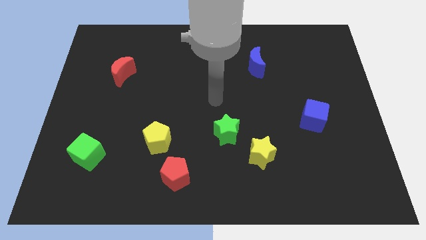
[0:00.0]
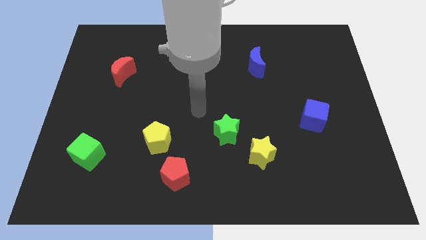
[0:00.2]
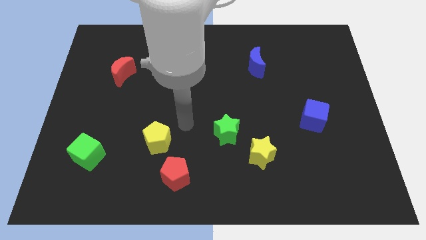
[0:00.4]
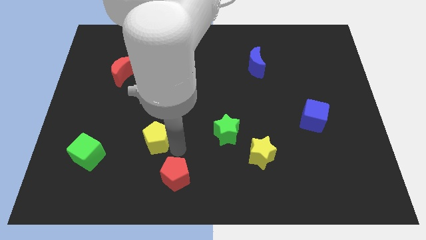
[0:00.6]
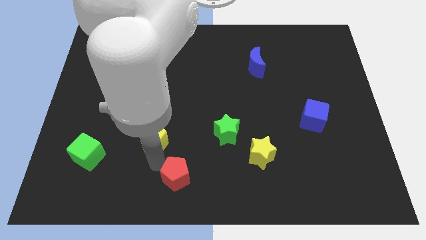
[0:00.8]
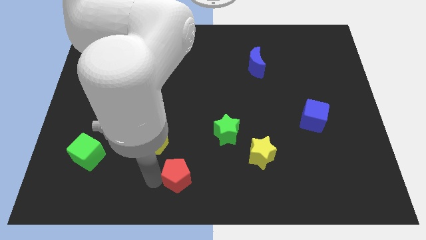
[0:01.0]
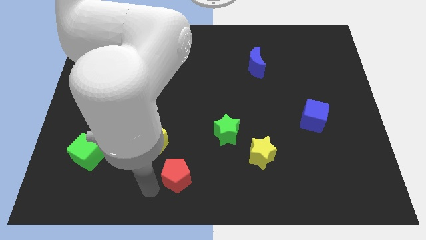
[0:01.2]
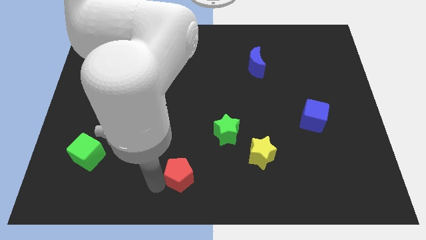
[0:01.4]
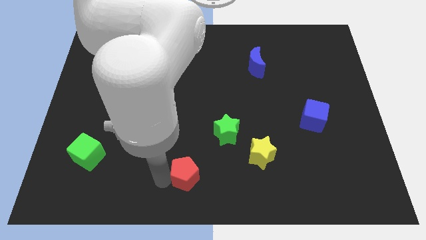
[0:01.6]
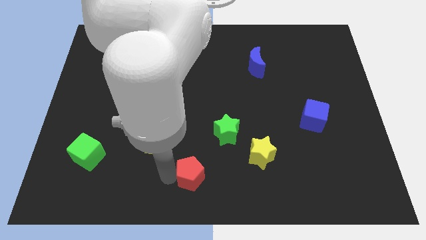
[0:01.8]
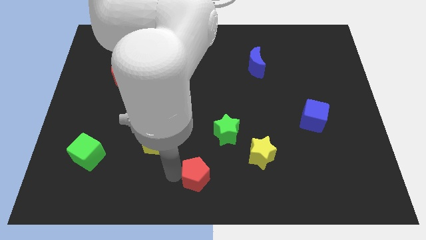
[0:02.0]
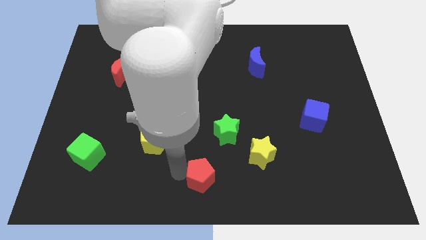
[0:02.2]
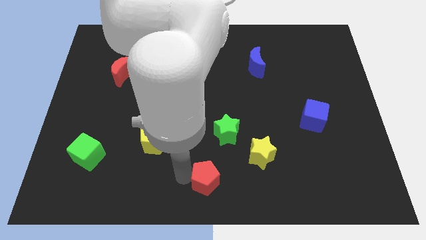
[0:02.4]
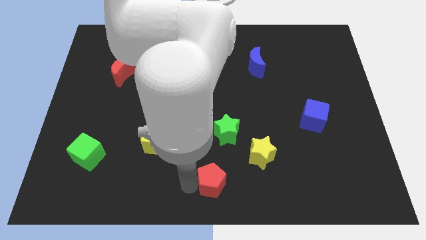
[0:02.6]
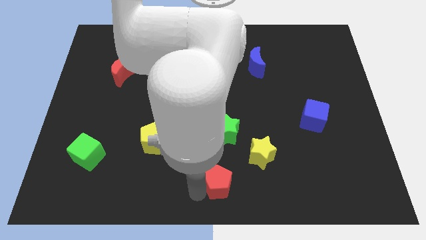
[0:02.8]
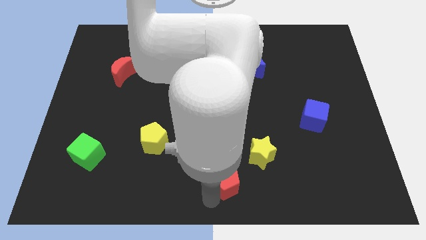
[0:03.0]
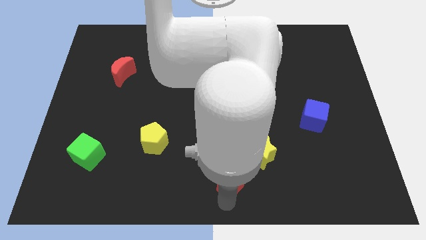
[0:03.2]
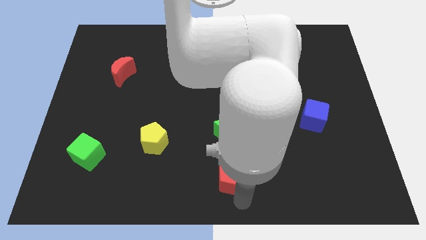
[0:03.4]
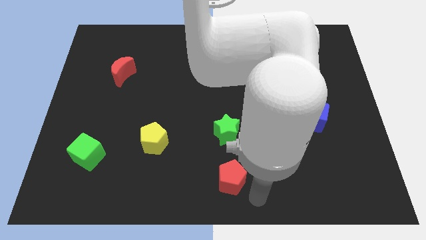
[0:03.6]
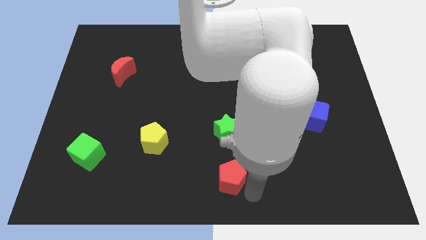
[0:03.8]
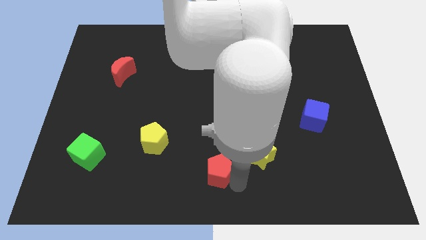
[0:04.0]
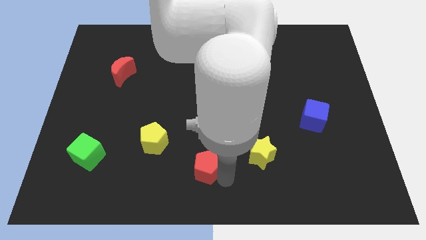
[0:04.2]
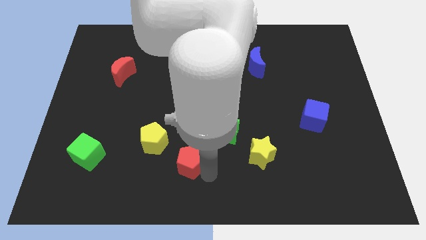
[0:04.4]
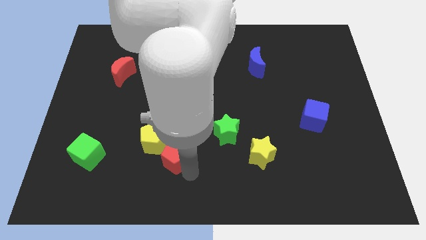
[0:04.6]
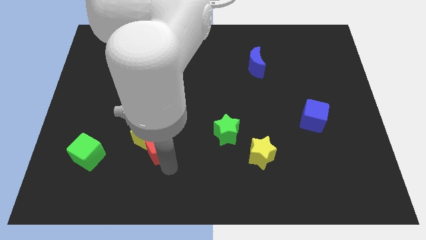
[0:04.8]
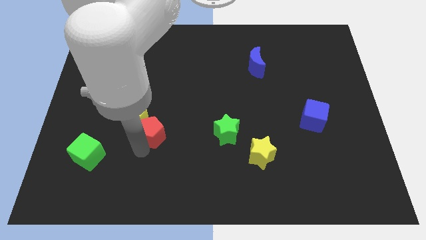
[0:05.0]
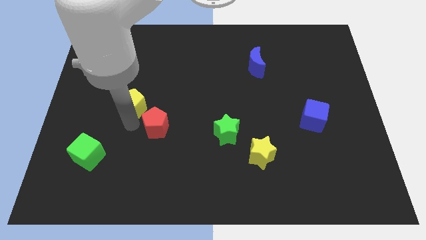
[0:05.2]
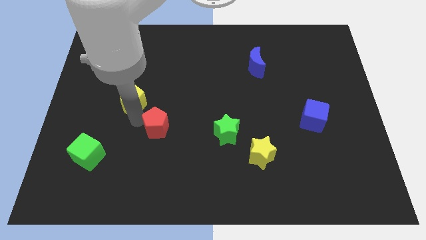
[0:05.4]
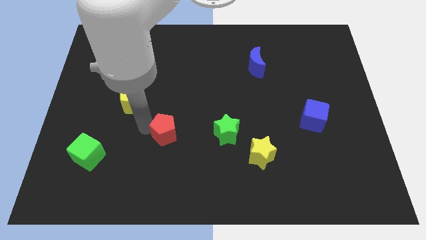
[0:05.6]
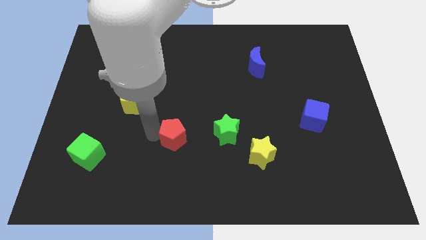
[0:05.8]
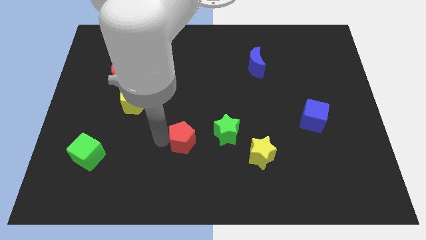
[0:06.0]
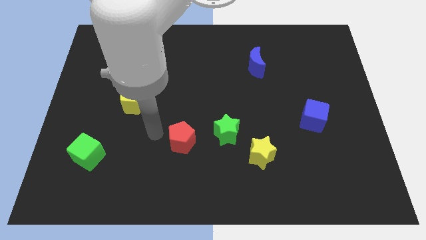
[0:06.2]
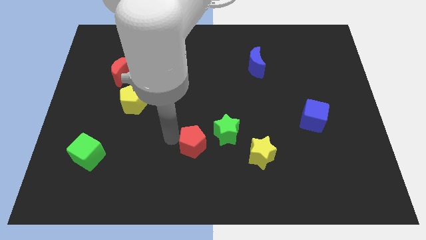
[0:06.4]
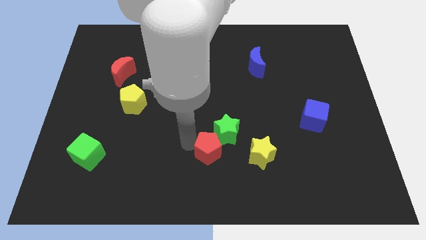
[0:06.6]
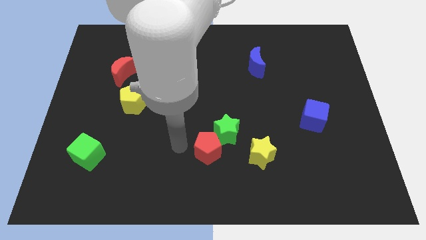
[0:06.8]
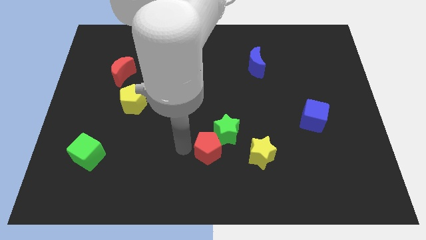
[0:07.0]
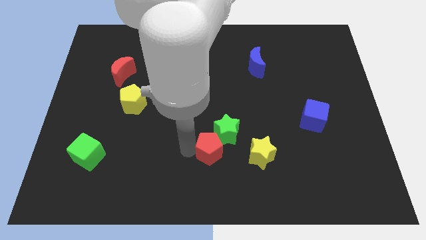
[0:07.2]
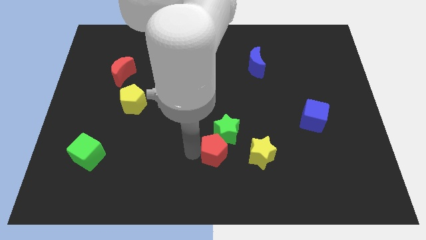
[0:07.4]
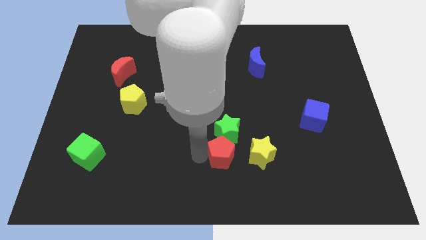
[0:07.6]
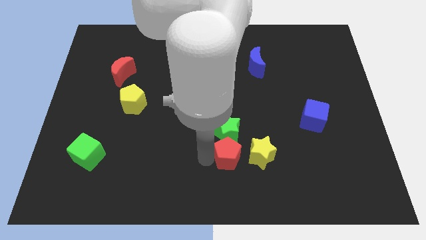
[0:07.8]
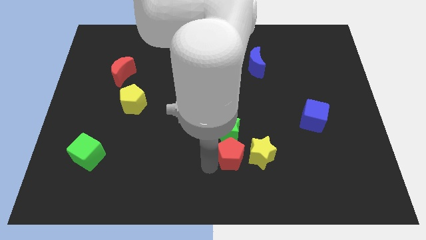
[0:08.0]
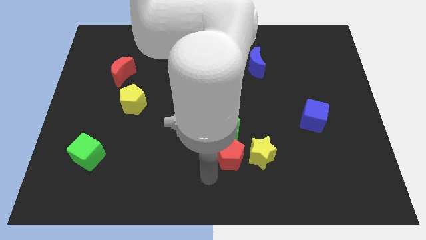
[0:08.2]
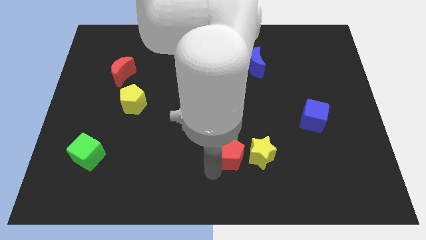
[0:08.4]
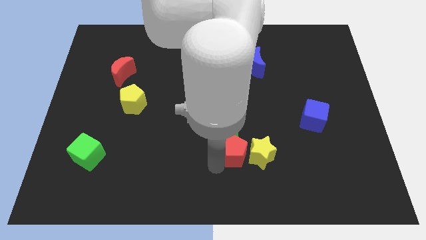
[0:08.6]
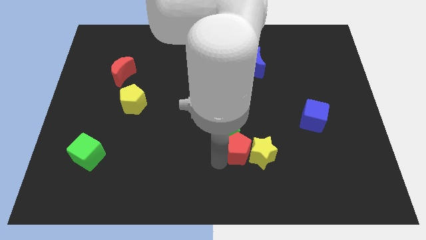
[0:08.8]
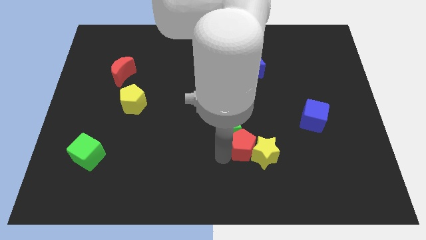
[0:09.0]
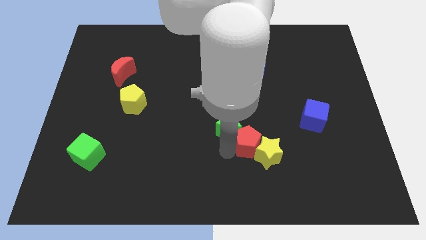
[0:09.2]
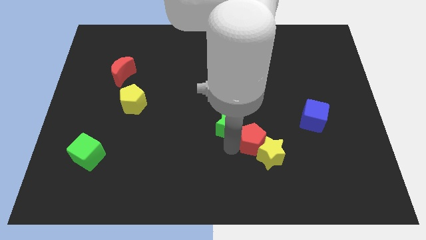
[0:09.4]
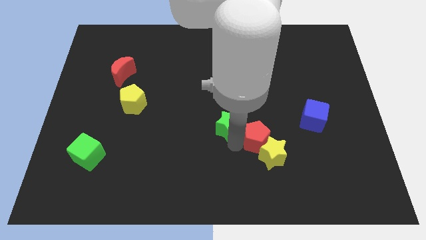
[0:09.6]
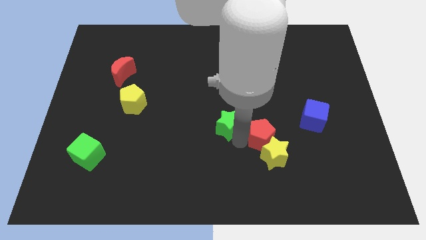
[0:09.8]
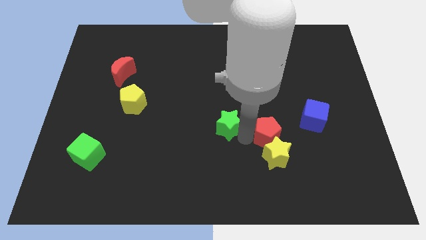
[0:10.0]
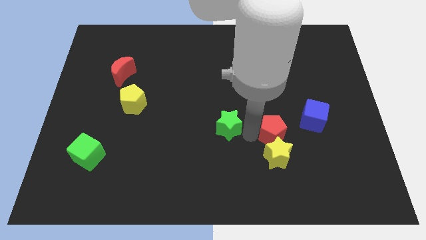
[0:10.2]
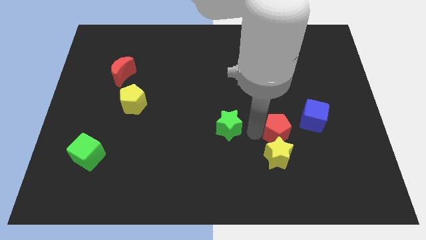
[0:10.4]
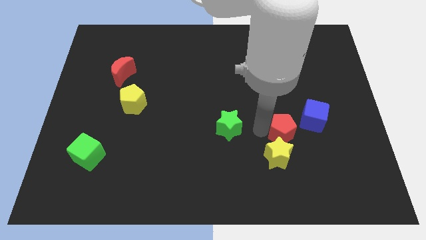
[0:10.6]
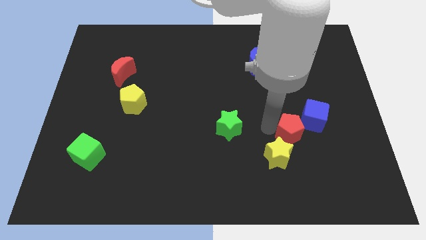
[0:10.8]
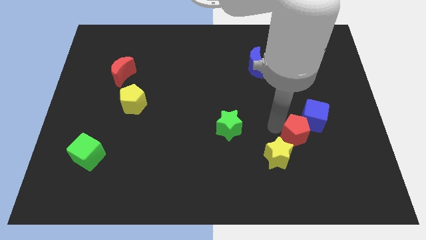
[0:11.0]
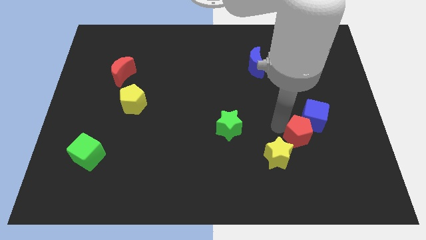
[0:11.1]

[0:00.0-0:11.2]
push the red pentagon to the blue cube

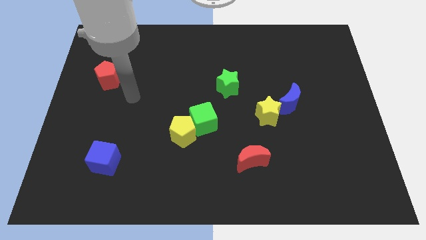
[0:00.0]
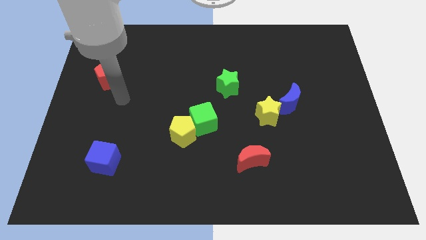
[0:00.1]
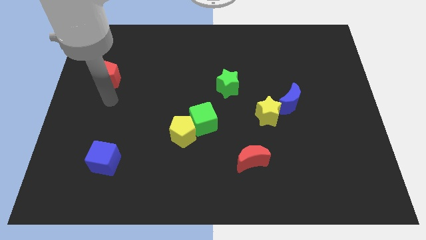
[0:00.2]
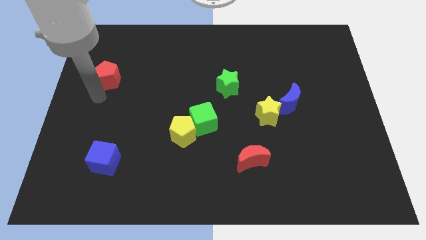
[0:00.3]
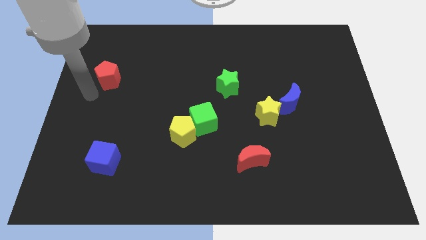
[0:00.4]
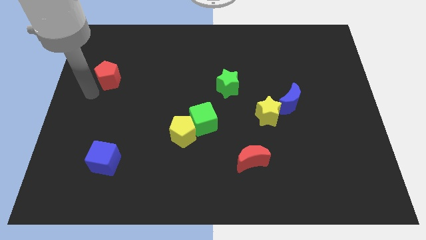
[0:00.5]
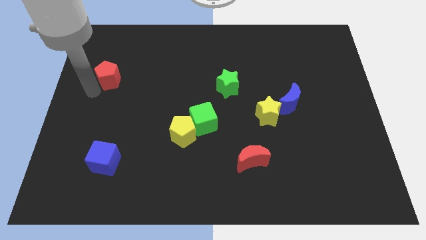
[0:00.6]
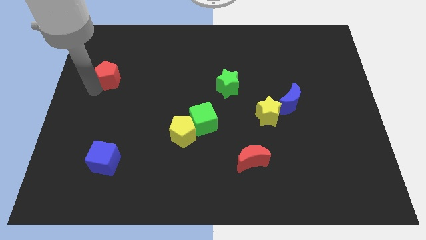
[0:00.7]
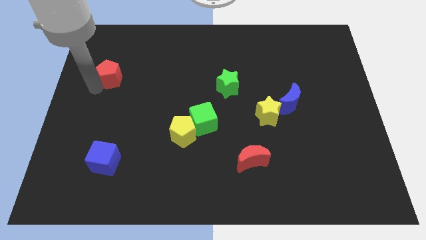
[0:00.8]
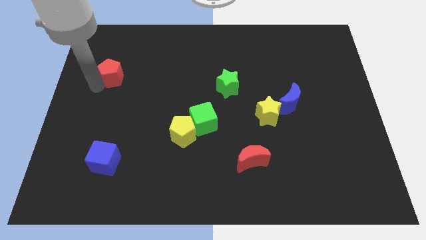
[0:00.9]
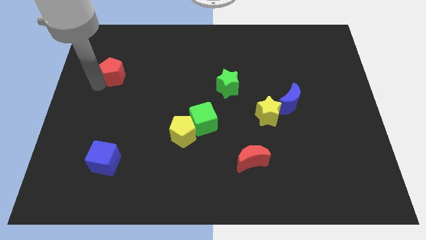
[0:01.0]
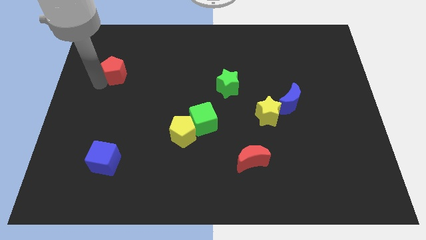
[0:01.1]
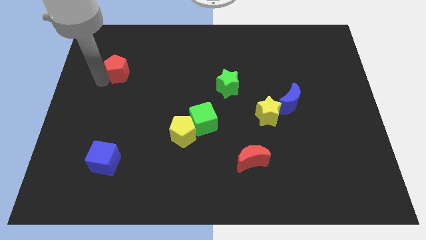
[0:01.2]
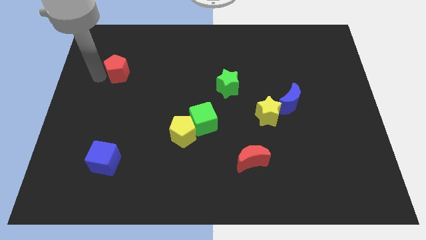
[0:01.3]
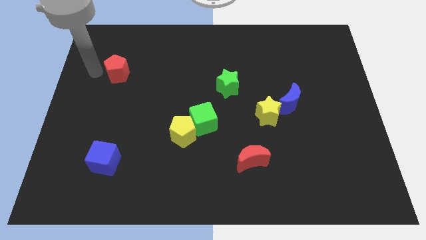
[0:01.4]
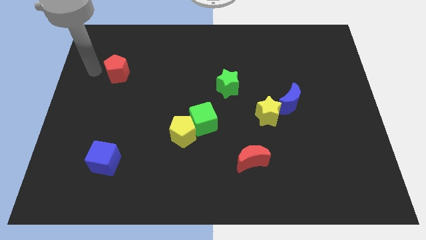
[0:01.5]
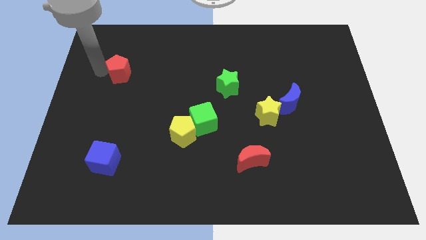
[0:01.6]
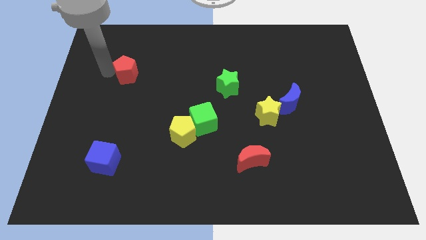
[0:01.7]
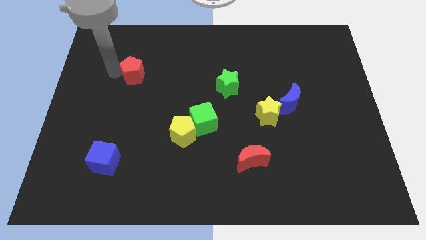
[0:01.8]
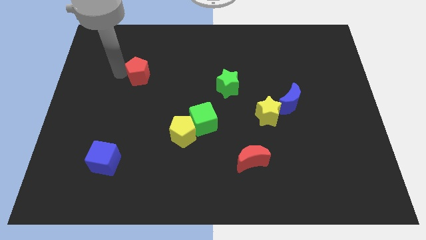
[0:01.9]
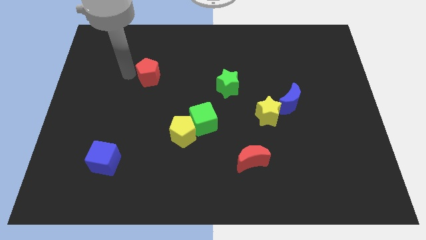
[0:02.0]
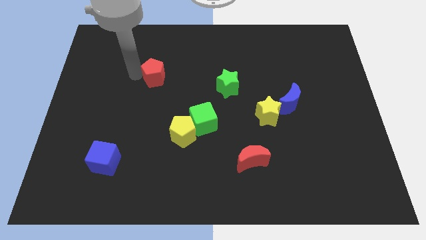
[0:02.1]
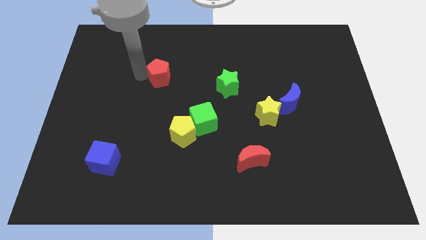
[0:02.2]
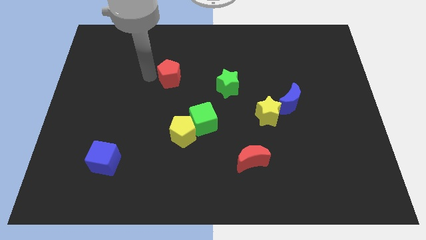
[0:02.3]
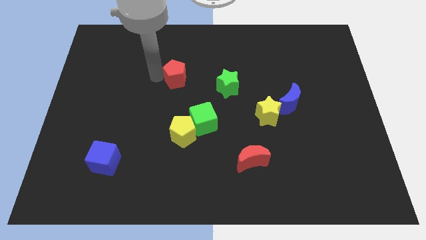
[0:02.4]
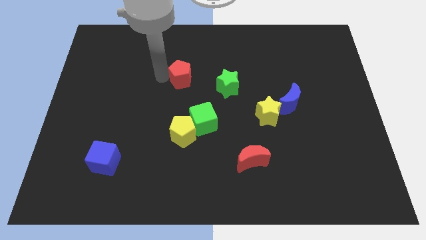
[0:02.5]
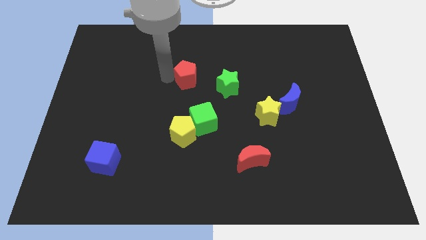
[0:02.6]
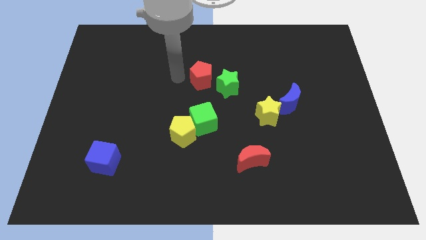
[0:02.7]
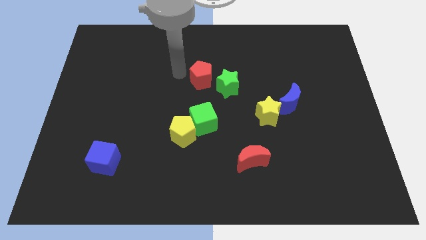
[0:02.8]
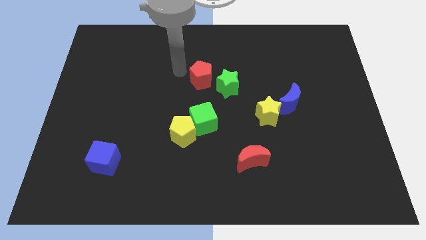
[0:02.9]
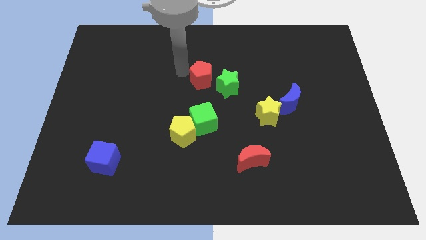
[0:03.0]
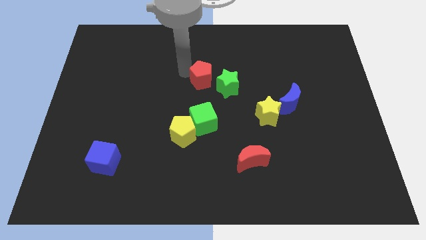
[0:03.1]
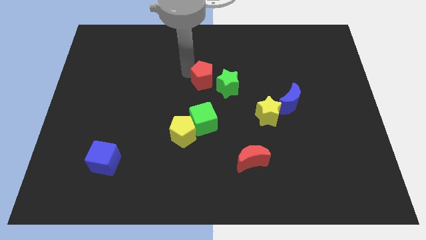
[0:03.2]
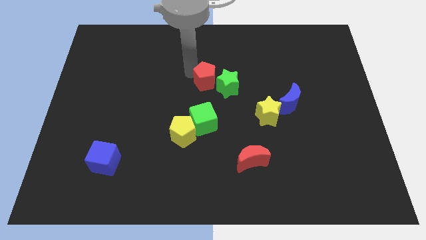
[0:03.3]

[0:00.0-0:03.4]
slide the red pentagon close to the green star
